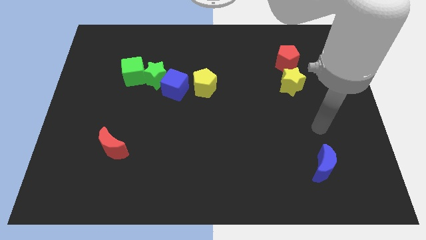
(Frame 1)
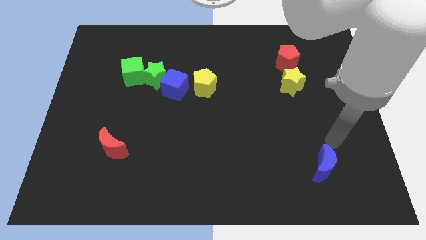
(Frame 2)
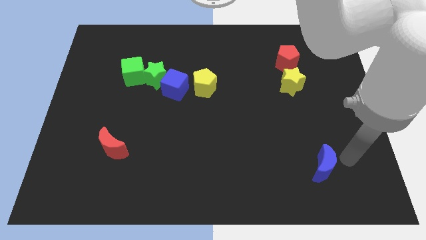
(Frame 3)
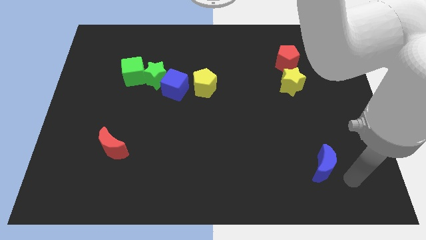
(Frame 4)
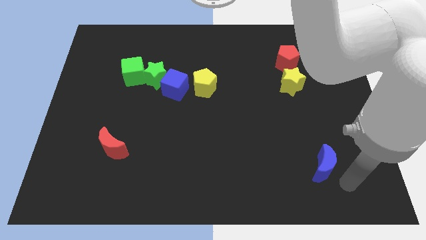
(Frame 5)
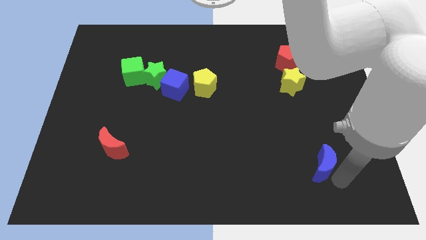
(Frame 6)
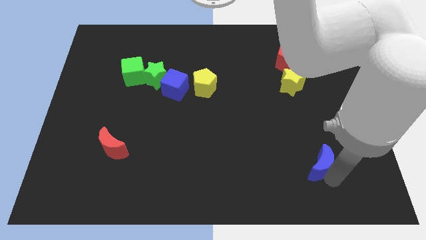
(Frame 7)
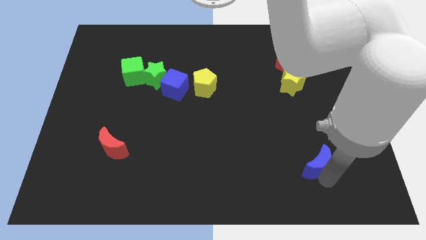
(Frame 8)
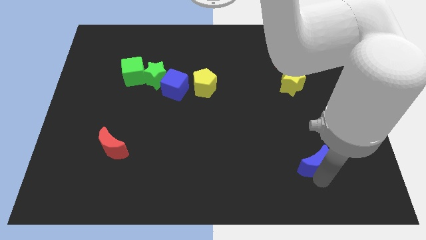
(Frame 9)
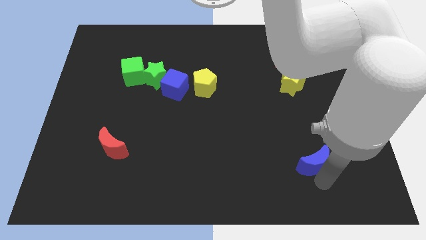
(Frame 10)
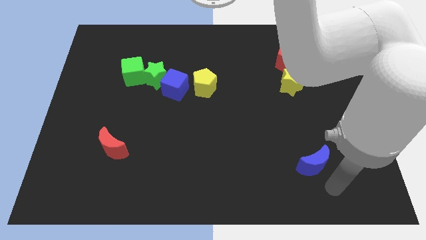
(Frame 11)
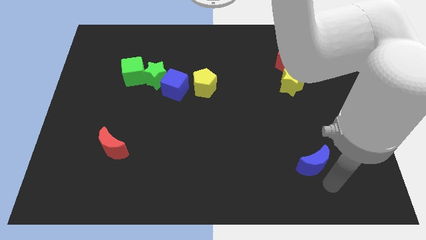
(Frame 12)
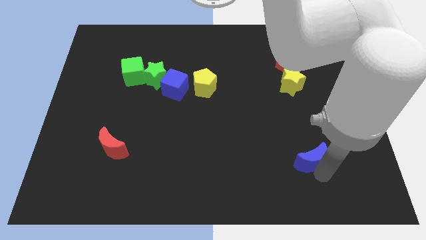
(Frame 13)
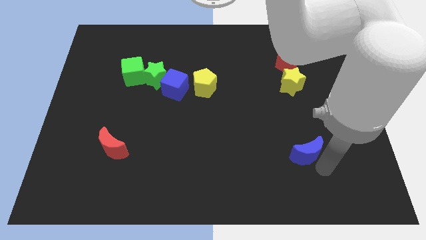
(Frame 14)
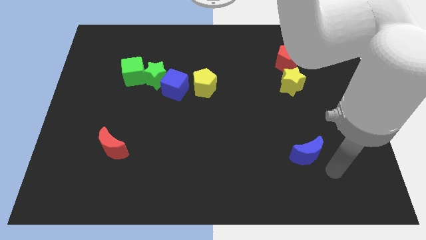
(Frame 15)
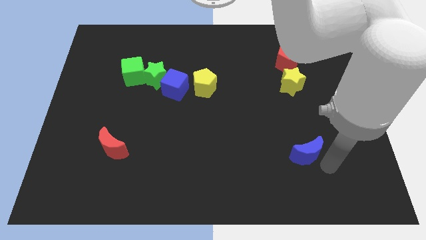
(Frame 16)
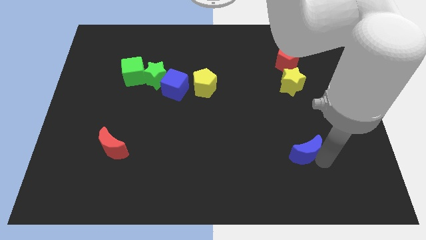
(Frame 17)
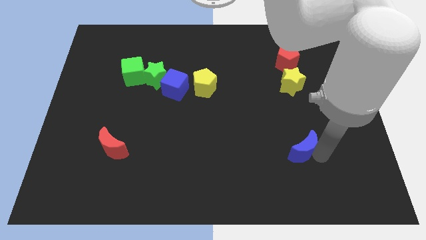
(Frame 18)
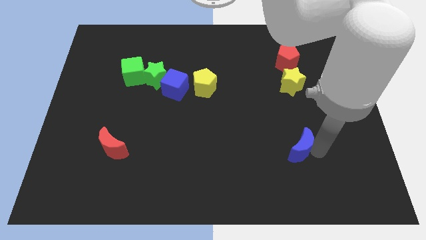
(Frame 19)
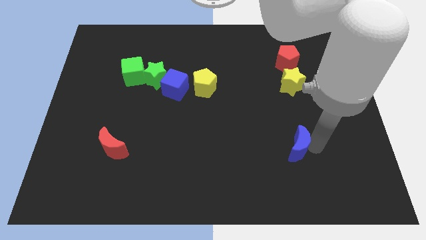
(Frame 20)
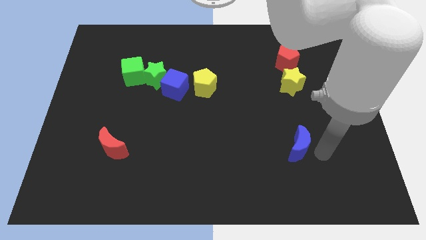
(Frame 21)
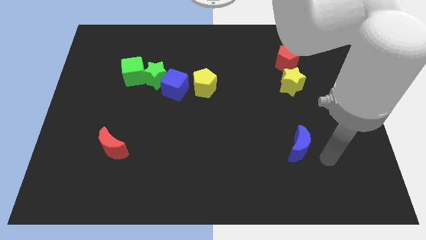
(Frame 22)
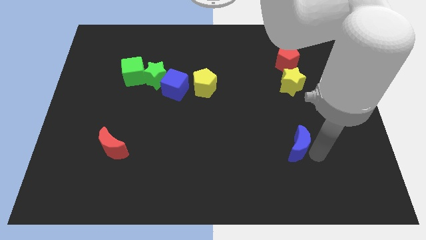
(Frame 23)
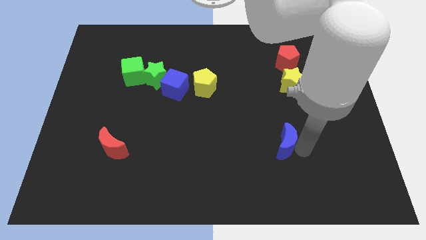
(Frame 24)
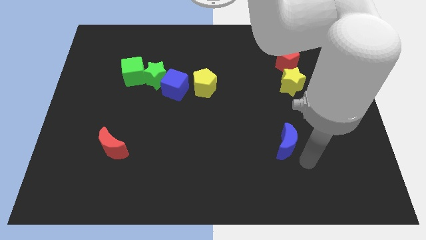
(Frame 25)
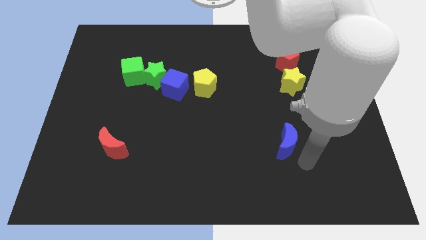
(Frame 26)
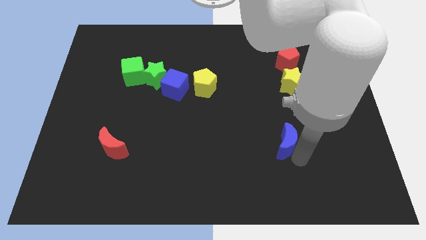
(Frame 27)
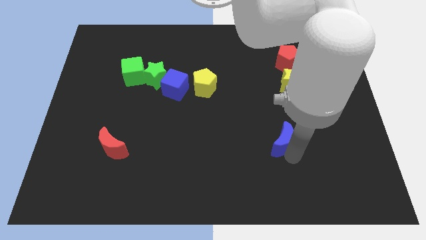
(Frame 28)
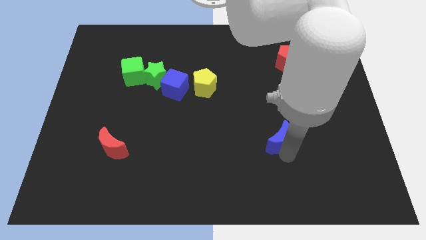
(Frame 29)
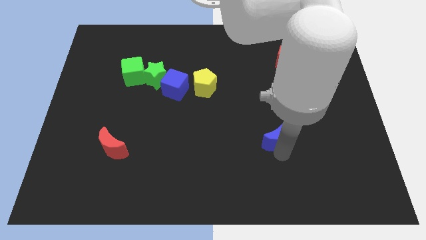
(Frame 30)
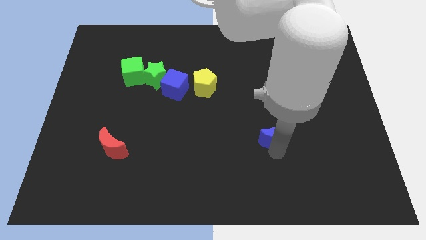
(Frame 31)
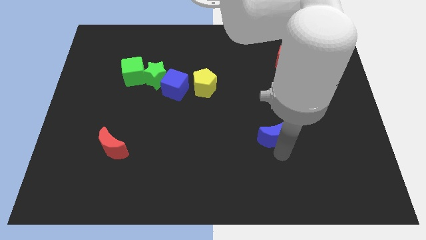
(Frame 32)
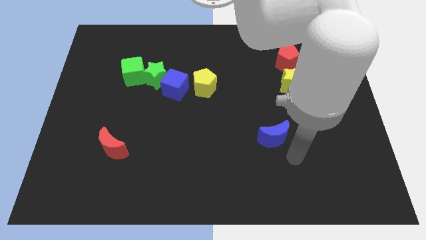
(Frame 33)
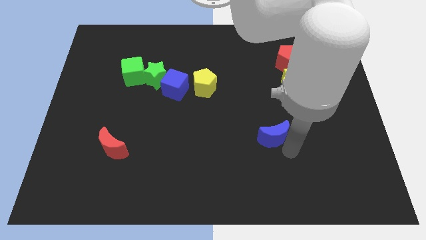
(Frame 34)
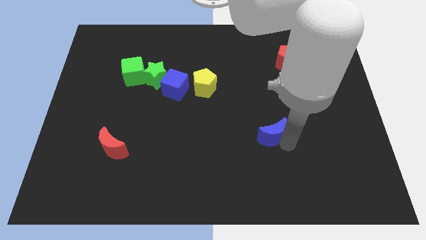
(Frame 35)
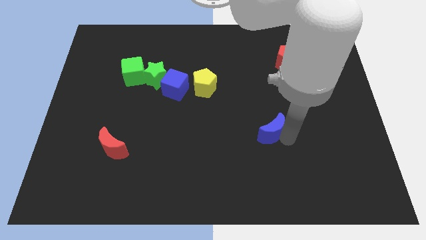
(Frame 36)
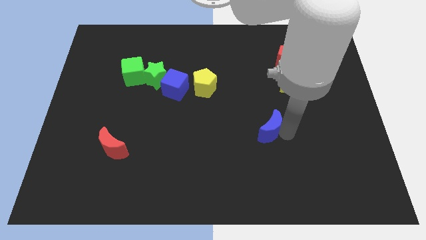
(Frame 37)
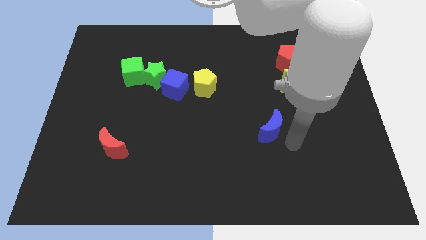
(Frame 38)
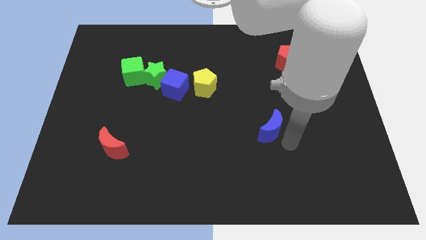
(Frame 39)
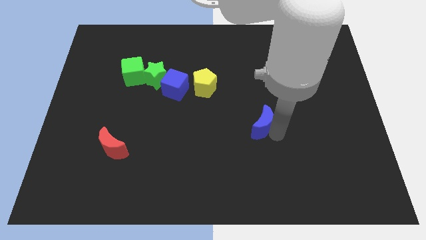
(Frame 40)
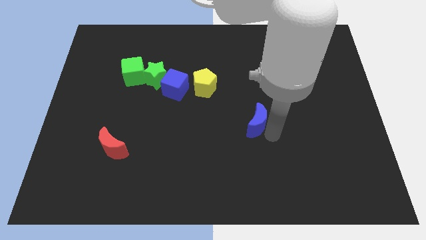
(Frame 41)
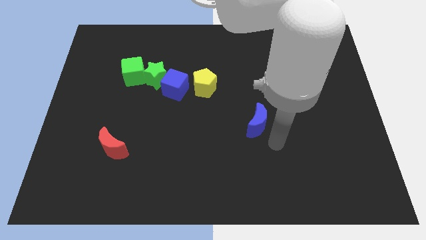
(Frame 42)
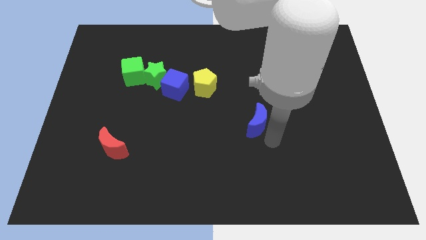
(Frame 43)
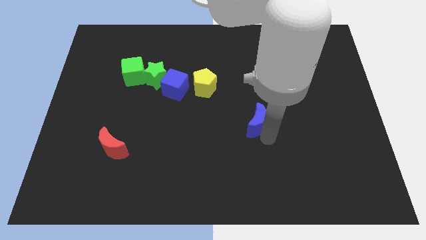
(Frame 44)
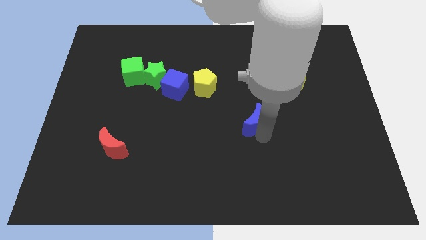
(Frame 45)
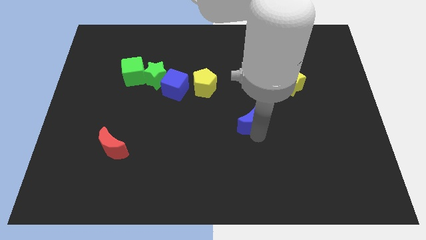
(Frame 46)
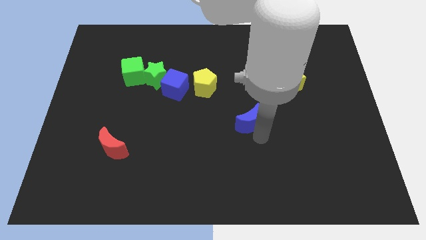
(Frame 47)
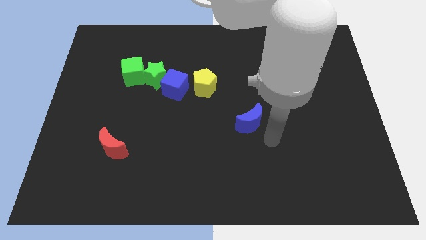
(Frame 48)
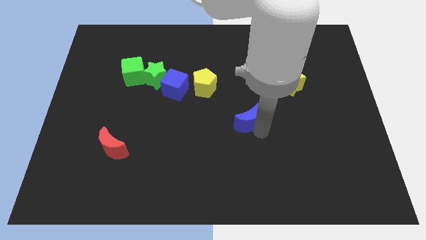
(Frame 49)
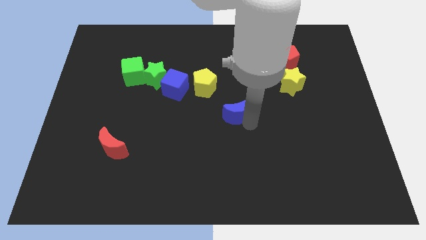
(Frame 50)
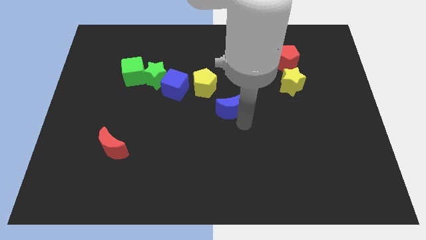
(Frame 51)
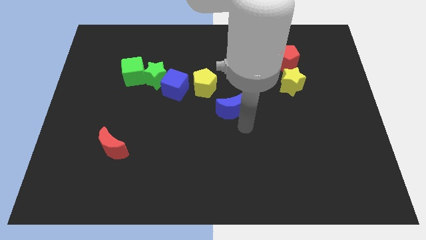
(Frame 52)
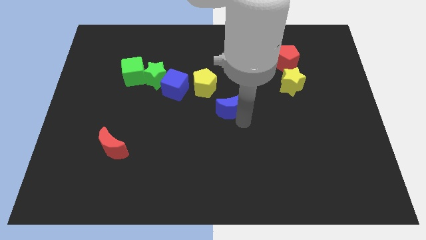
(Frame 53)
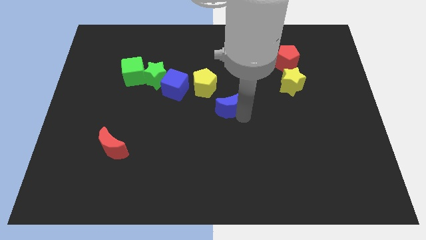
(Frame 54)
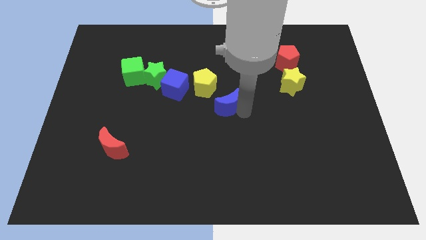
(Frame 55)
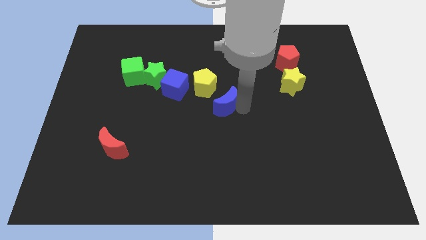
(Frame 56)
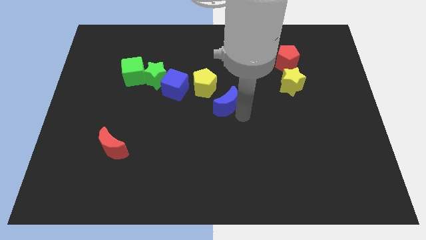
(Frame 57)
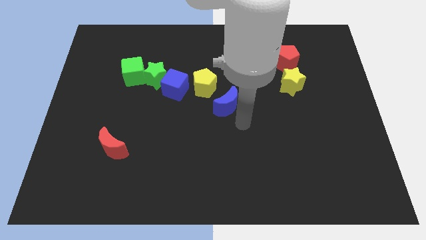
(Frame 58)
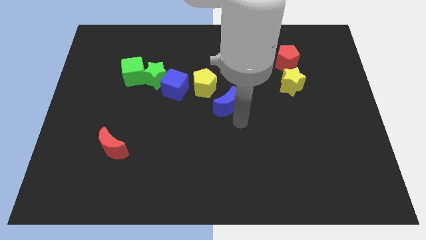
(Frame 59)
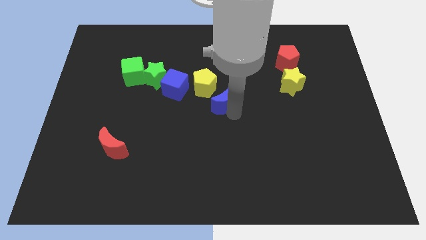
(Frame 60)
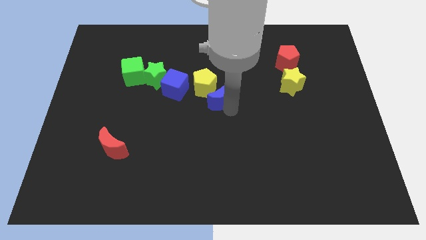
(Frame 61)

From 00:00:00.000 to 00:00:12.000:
slide the blue moon towards the yellow pentagon

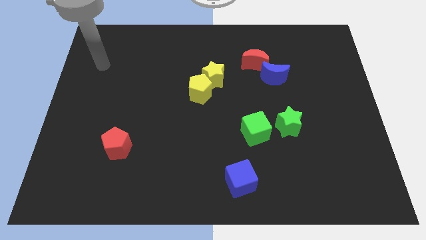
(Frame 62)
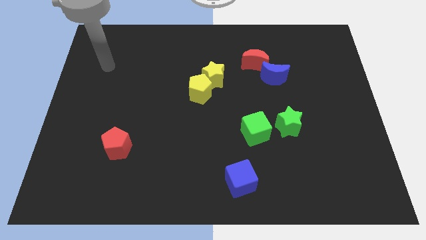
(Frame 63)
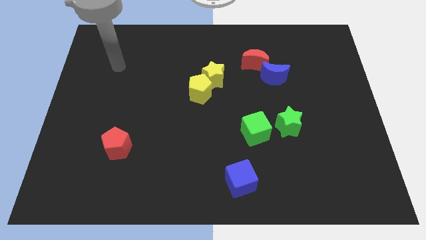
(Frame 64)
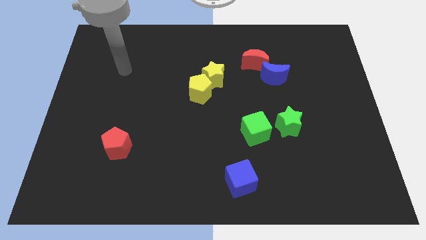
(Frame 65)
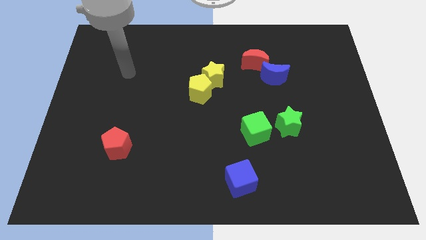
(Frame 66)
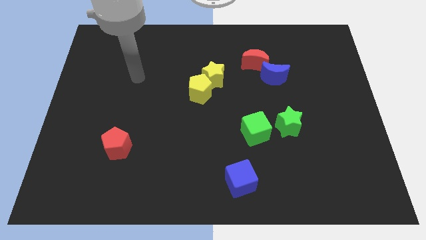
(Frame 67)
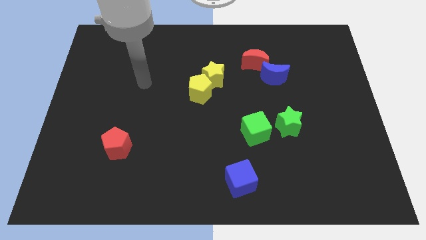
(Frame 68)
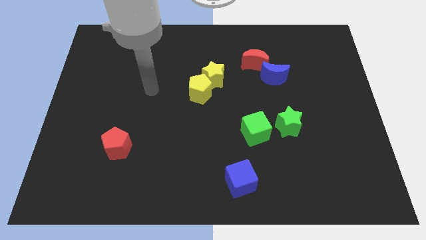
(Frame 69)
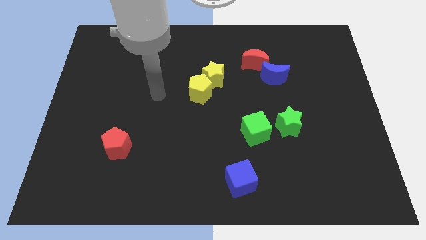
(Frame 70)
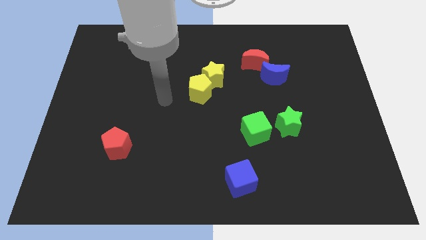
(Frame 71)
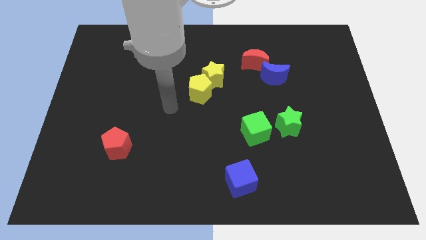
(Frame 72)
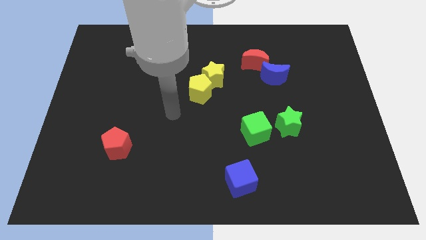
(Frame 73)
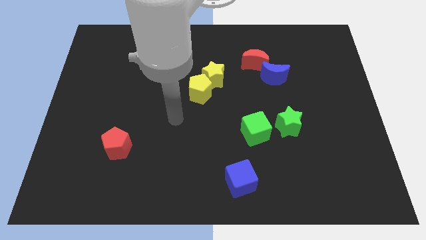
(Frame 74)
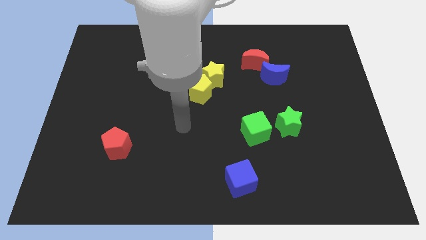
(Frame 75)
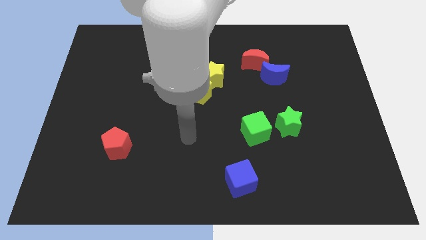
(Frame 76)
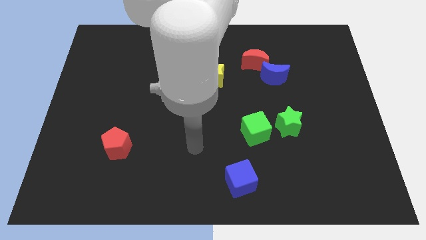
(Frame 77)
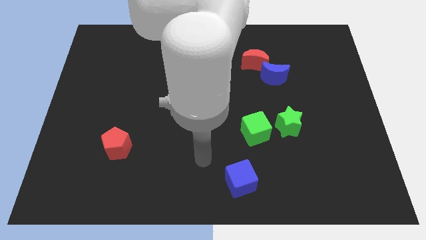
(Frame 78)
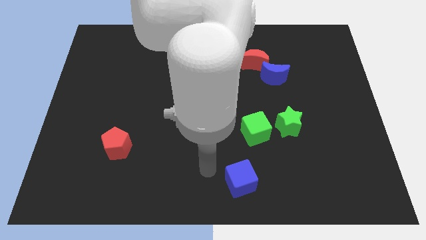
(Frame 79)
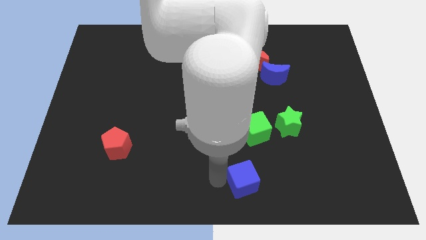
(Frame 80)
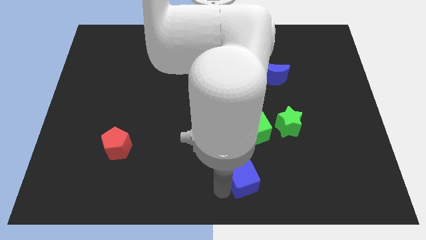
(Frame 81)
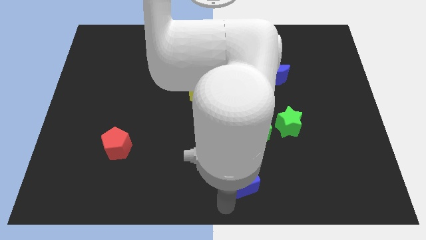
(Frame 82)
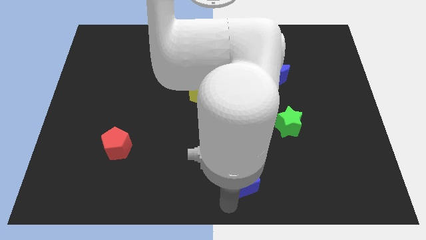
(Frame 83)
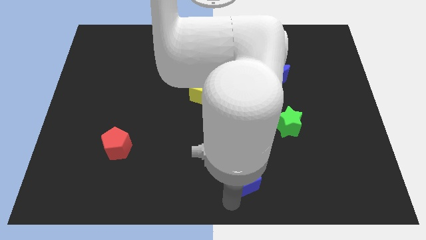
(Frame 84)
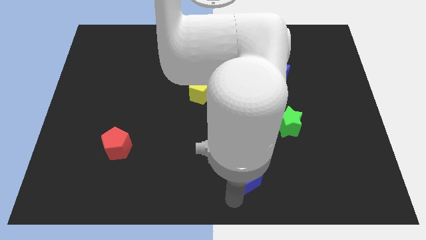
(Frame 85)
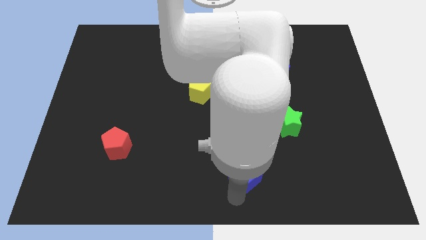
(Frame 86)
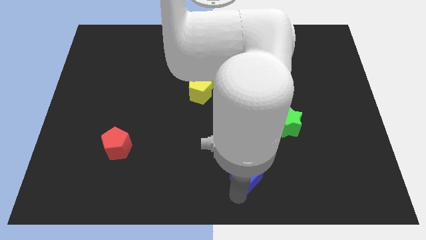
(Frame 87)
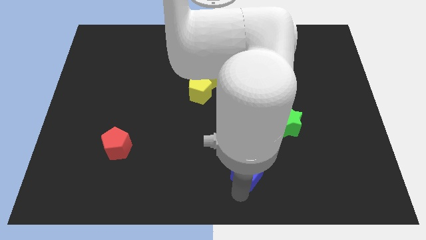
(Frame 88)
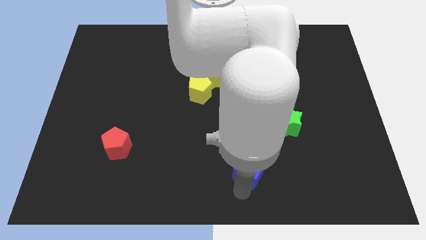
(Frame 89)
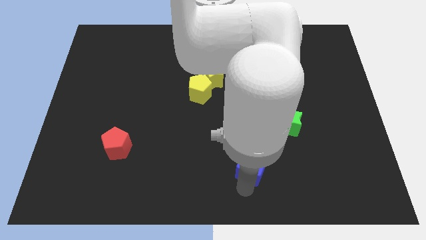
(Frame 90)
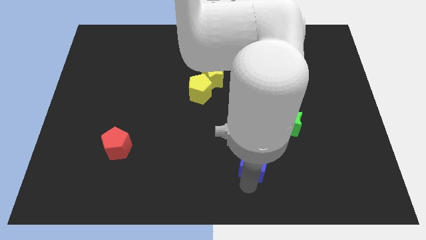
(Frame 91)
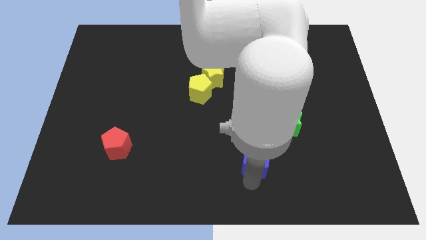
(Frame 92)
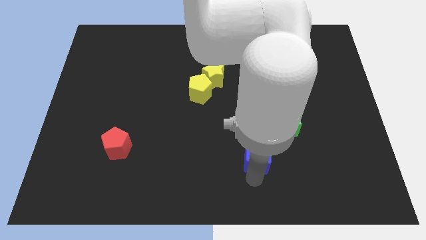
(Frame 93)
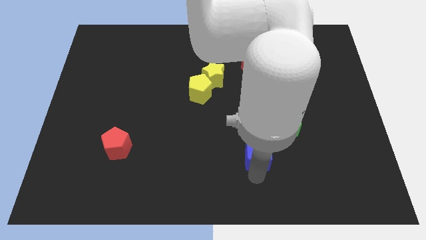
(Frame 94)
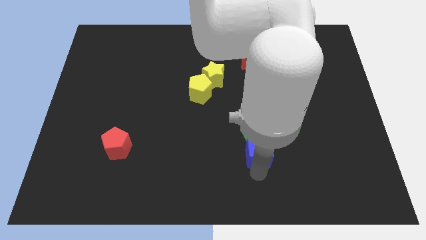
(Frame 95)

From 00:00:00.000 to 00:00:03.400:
push the blue cube close to the green cube
